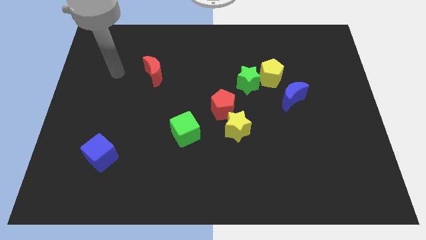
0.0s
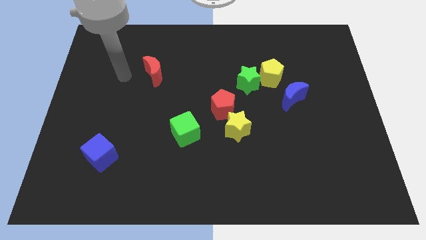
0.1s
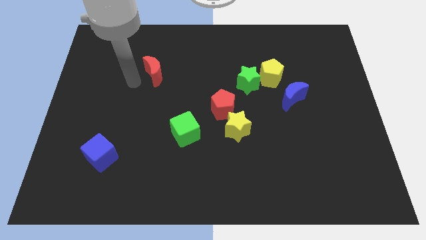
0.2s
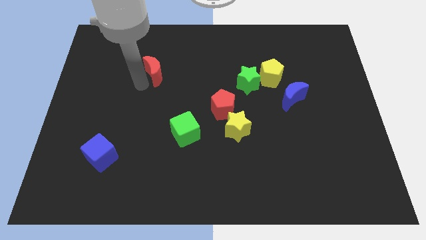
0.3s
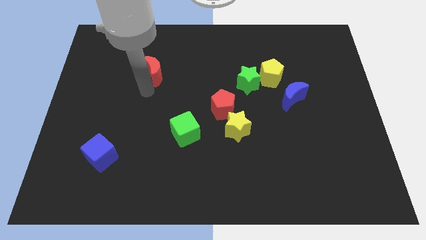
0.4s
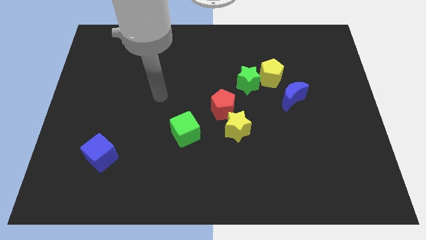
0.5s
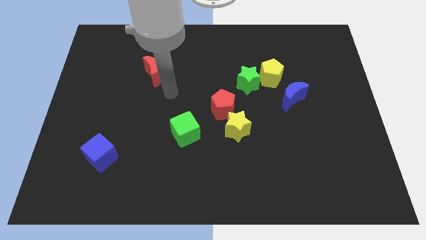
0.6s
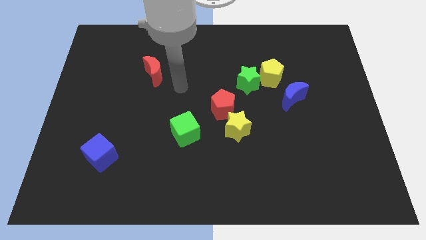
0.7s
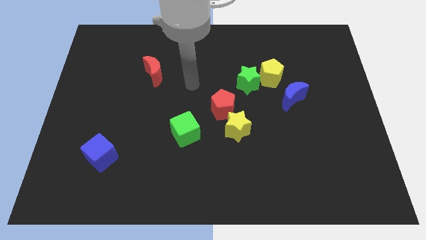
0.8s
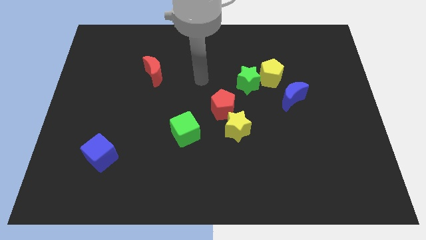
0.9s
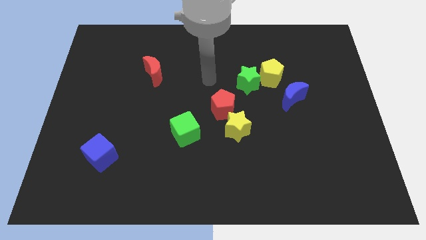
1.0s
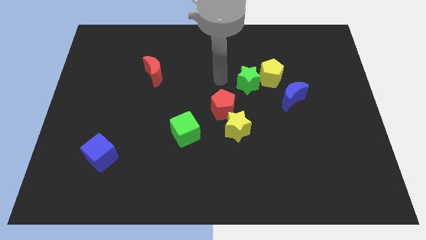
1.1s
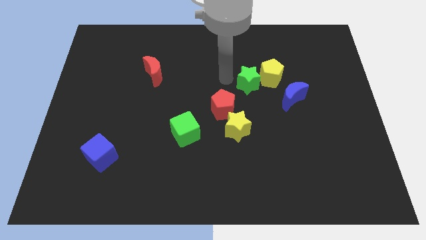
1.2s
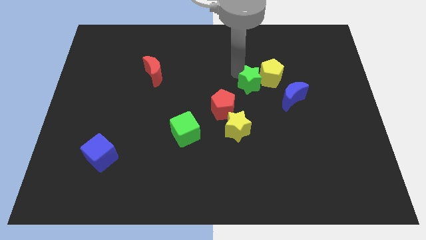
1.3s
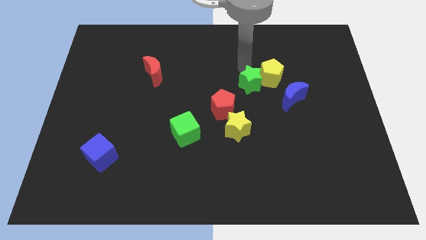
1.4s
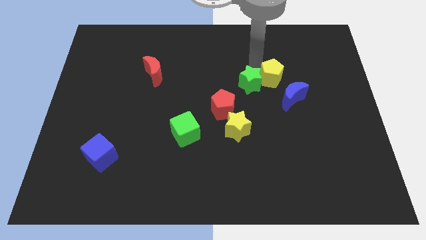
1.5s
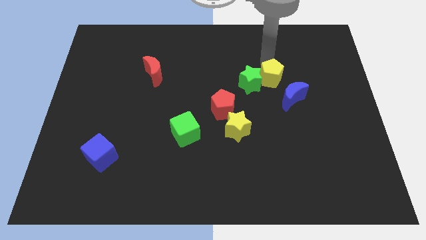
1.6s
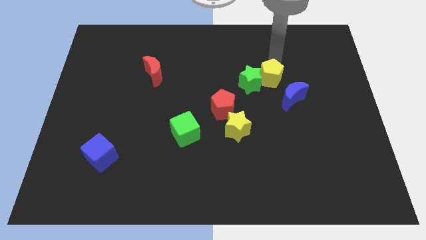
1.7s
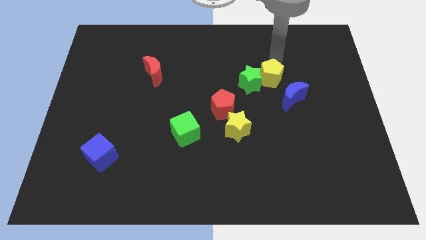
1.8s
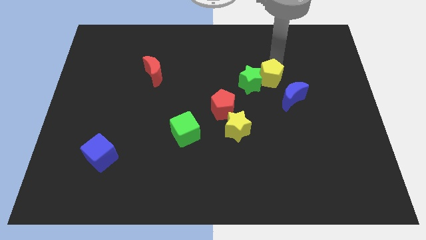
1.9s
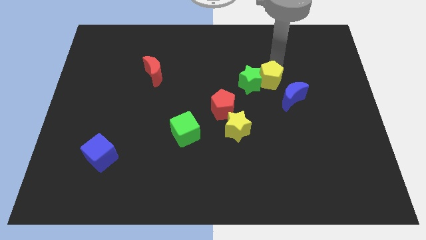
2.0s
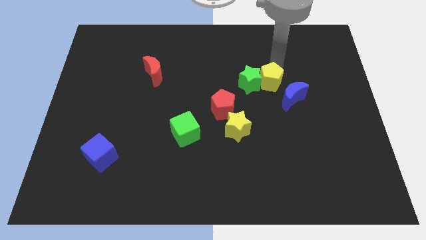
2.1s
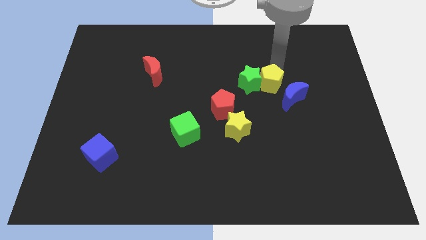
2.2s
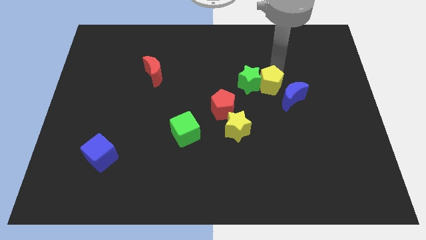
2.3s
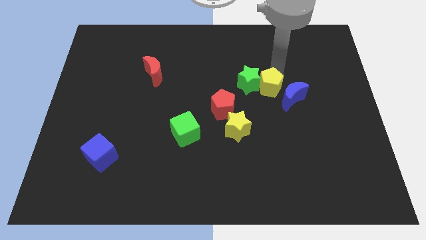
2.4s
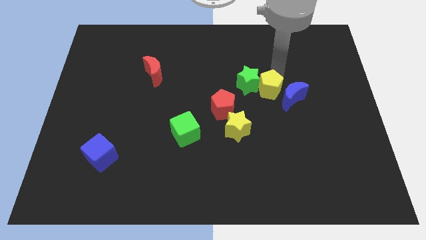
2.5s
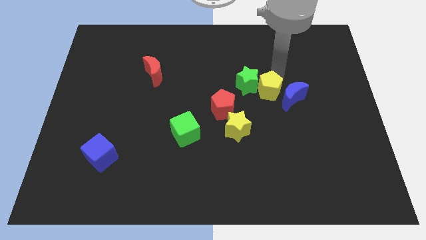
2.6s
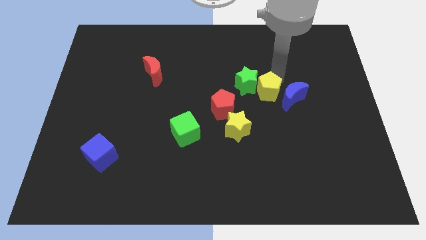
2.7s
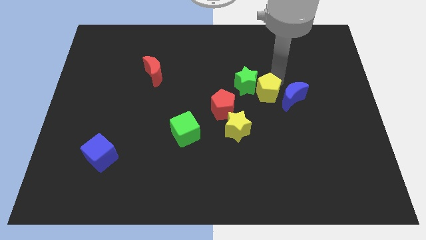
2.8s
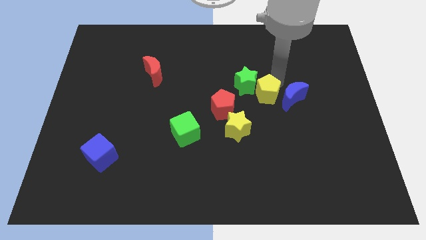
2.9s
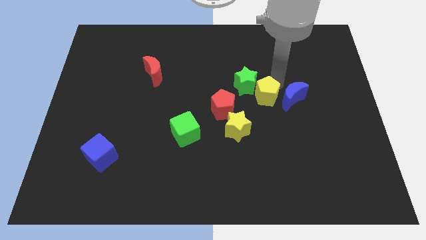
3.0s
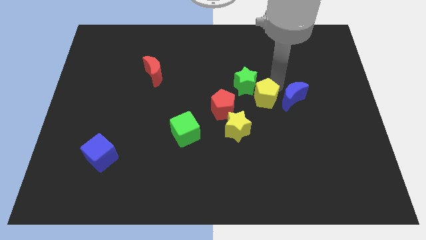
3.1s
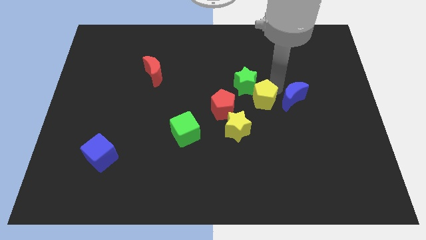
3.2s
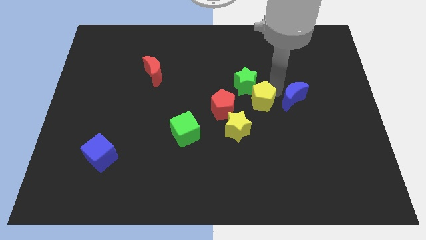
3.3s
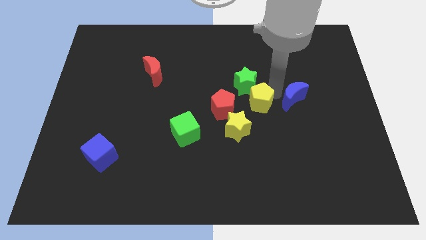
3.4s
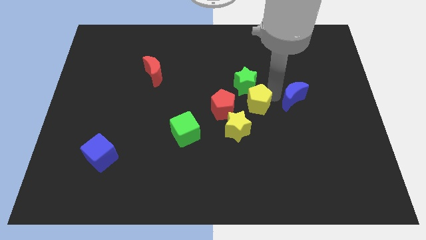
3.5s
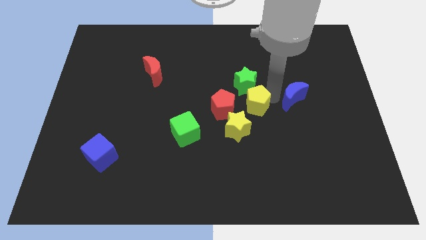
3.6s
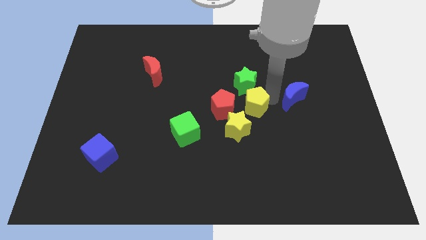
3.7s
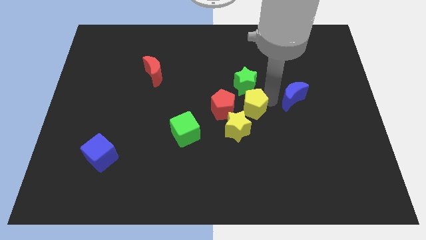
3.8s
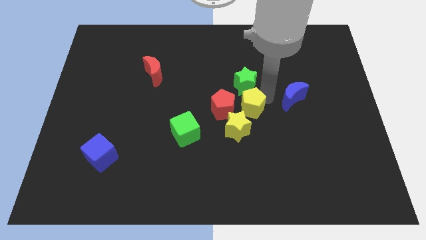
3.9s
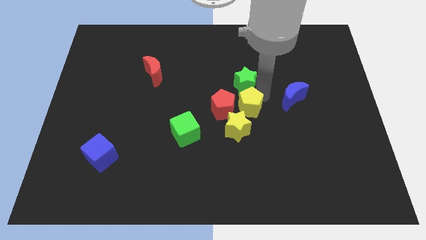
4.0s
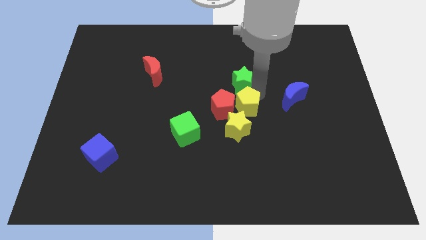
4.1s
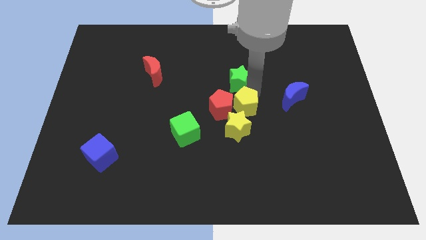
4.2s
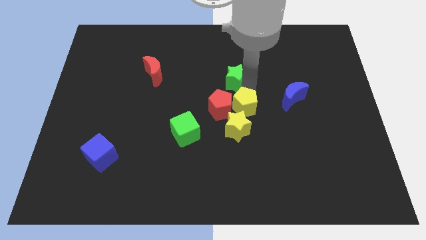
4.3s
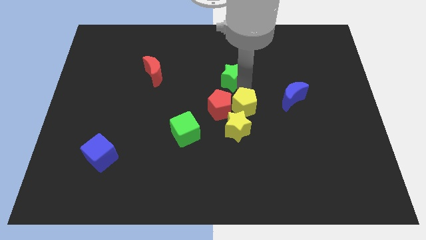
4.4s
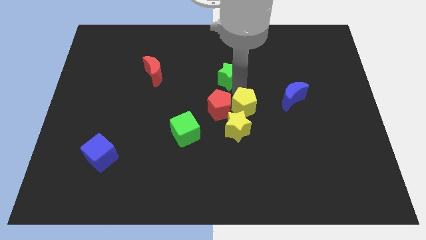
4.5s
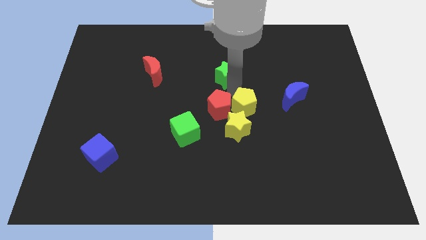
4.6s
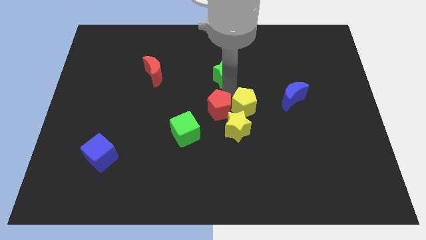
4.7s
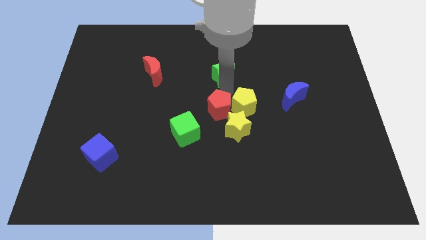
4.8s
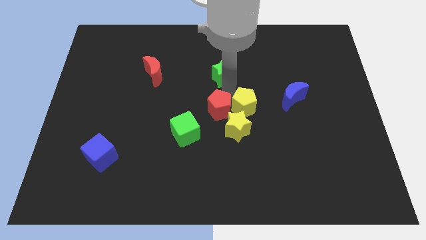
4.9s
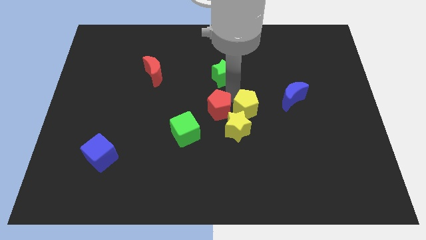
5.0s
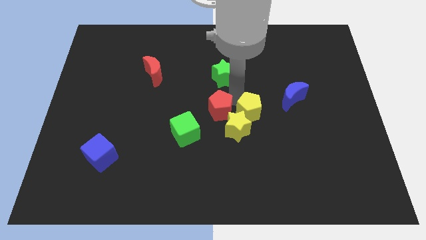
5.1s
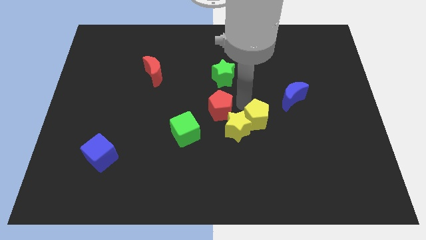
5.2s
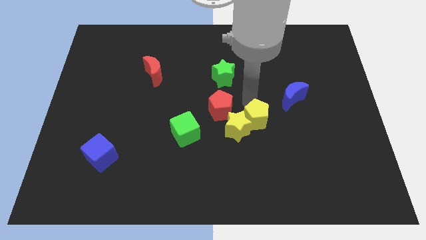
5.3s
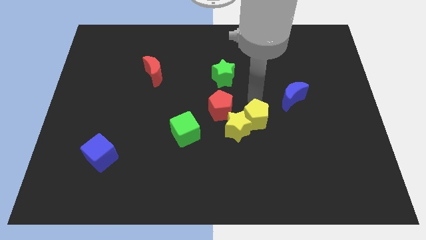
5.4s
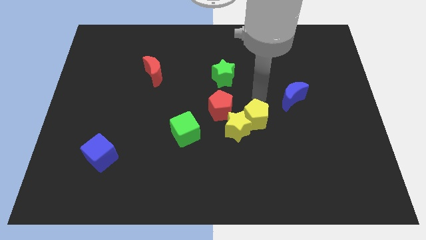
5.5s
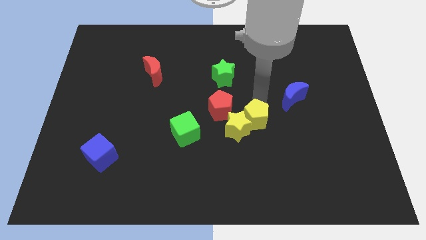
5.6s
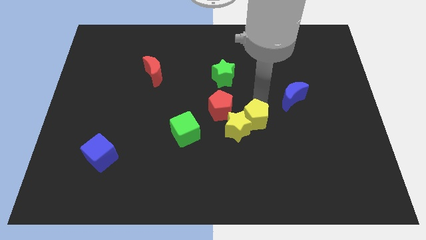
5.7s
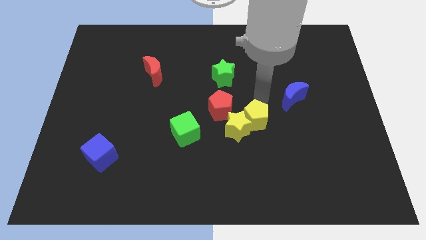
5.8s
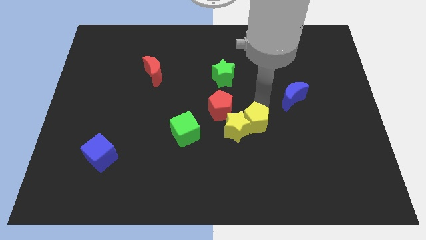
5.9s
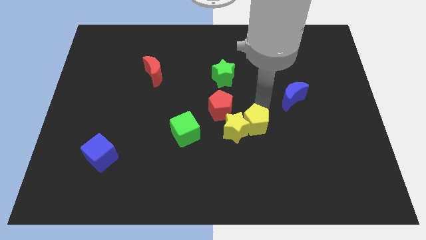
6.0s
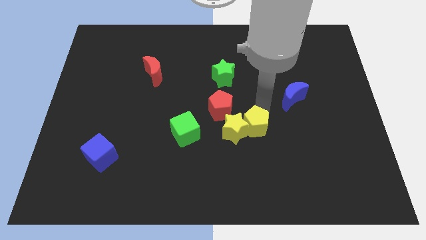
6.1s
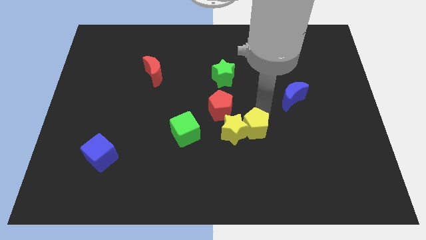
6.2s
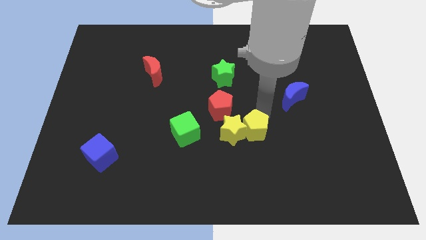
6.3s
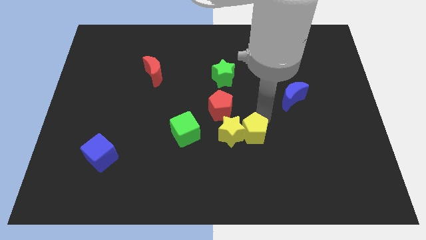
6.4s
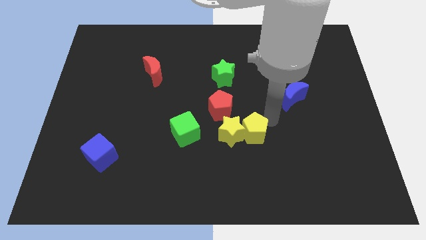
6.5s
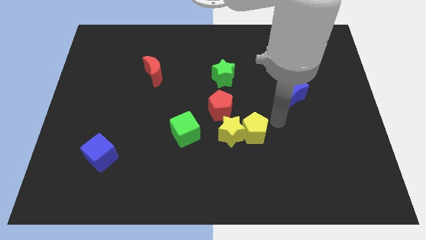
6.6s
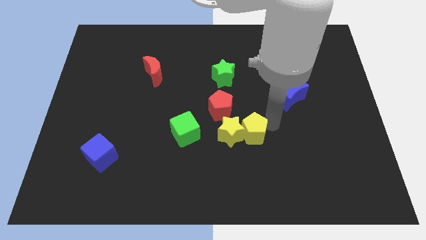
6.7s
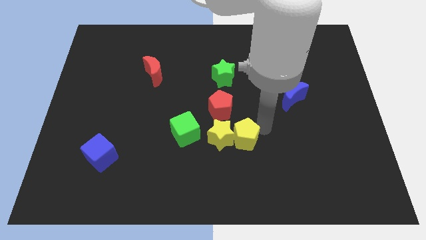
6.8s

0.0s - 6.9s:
put the yellow pentagon to the bottom of the red pentagon

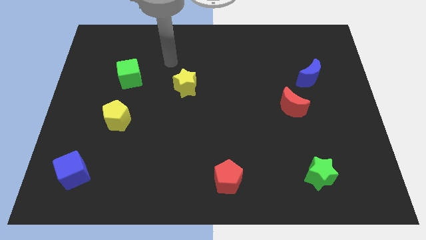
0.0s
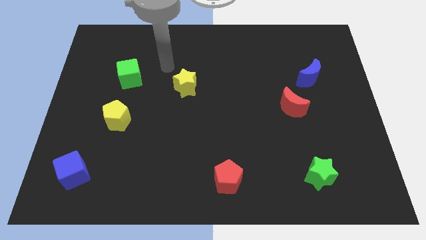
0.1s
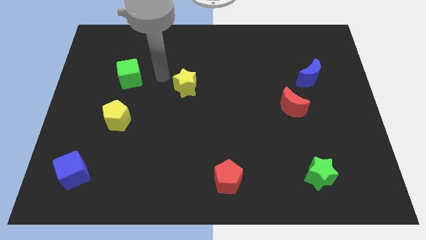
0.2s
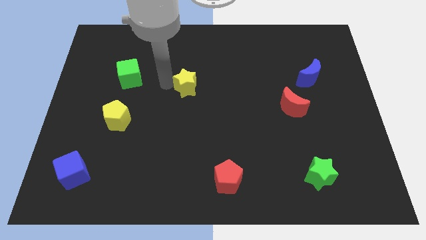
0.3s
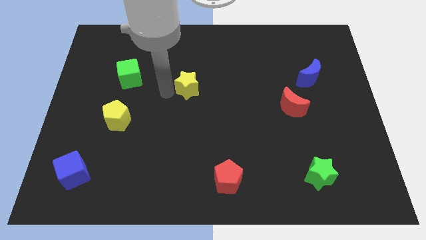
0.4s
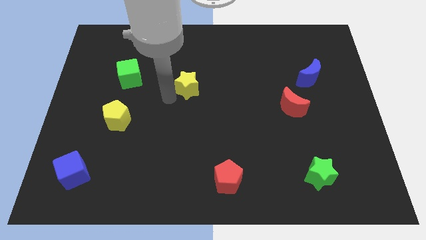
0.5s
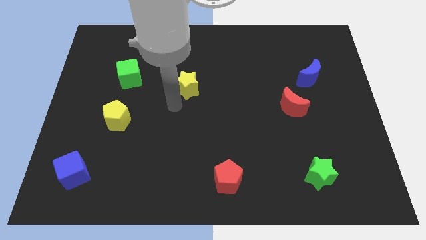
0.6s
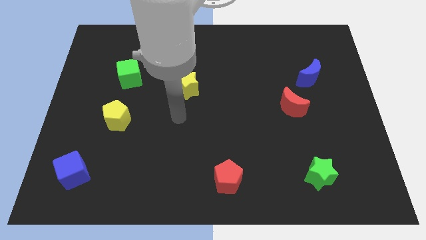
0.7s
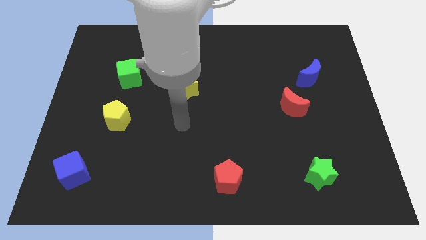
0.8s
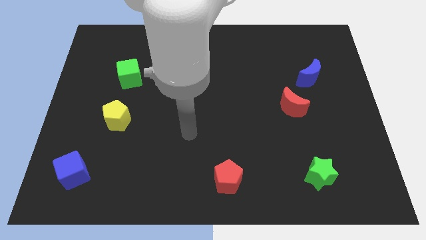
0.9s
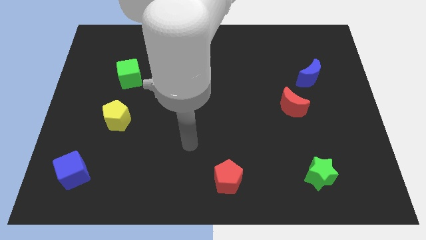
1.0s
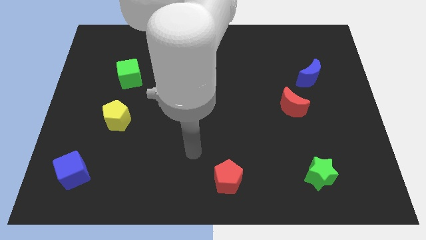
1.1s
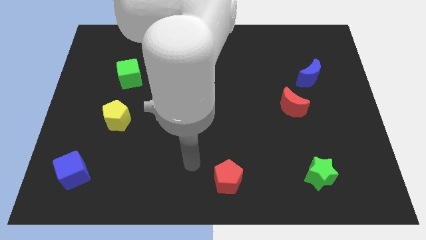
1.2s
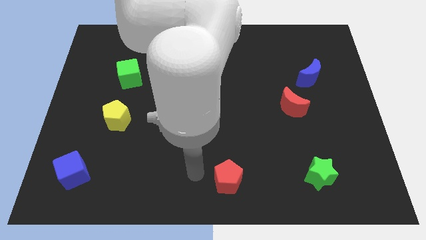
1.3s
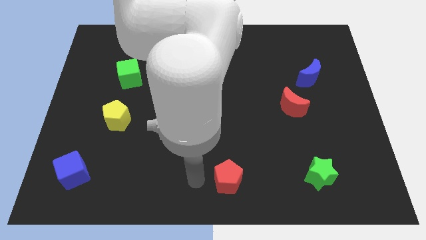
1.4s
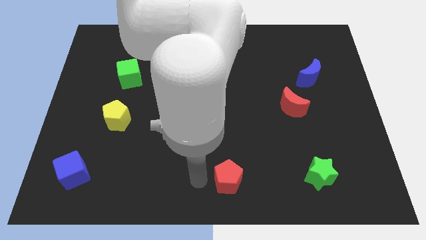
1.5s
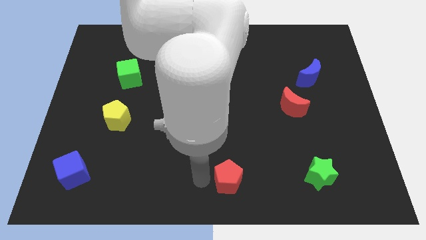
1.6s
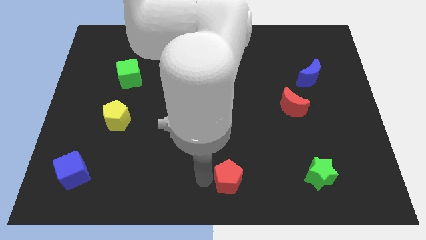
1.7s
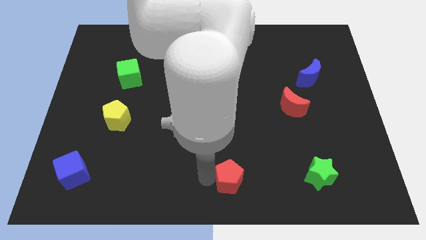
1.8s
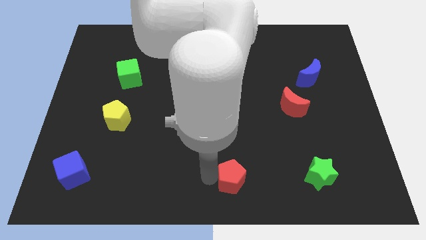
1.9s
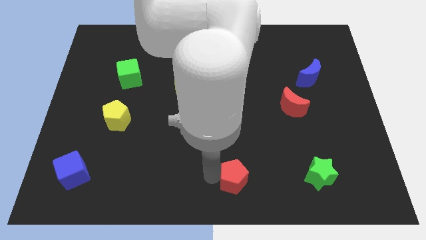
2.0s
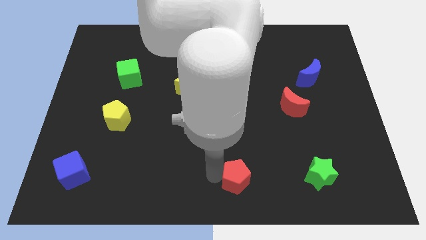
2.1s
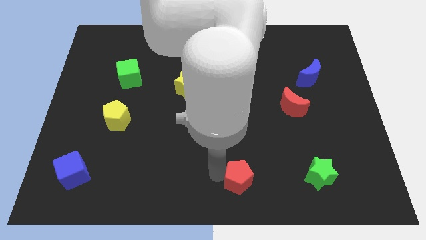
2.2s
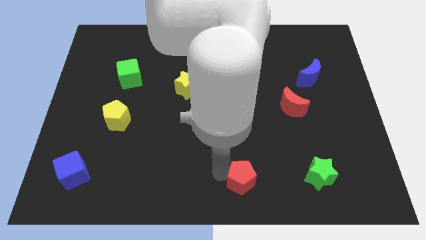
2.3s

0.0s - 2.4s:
put the red pentagon left of the green star
